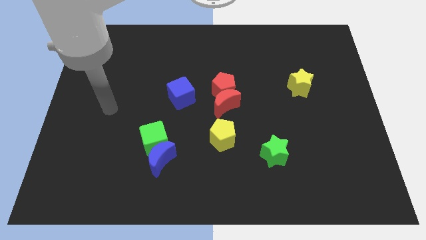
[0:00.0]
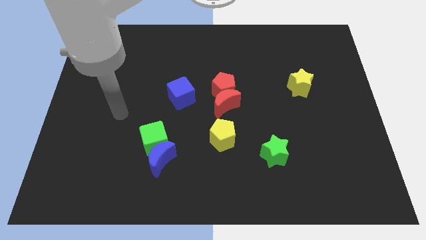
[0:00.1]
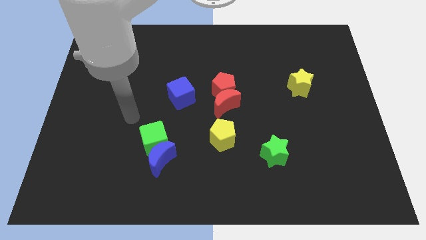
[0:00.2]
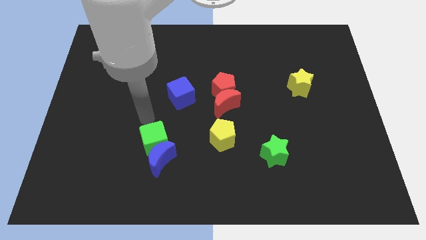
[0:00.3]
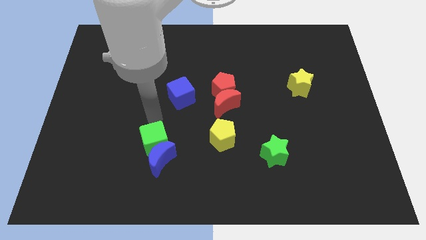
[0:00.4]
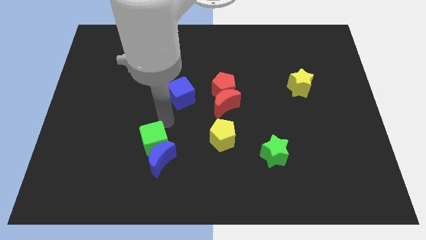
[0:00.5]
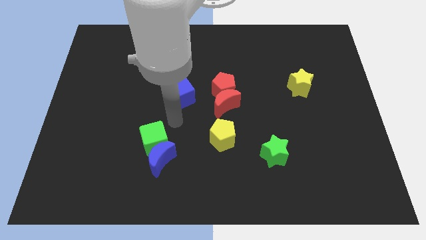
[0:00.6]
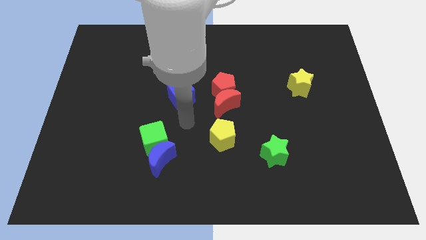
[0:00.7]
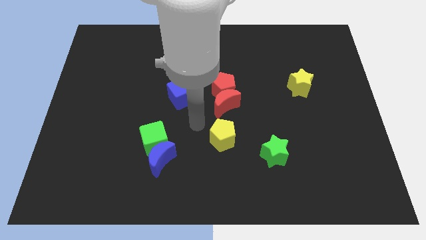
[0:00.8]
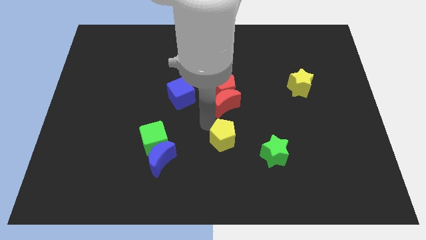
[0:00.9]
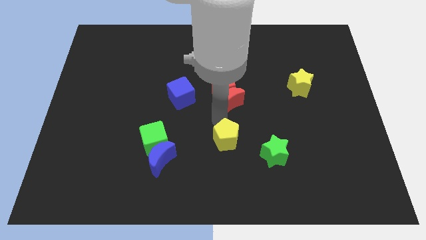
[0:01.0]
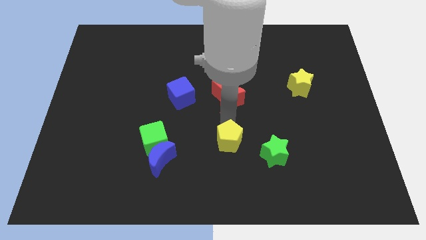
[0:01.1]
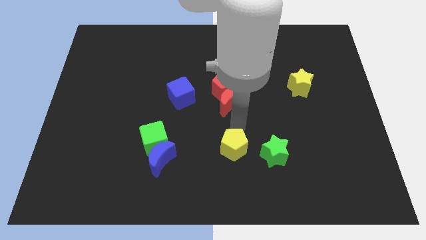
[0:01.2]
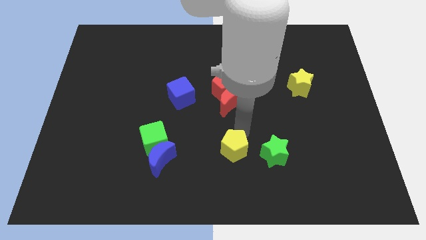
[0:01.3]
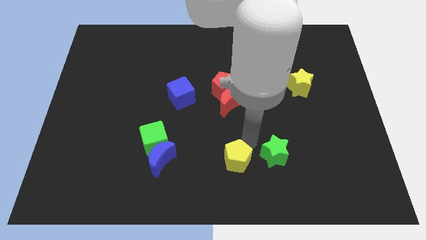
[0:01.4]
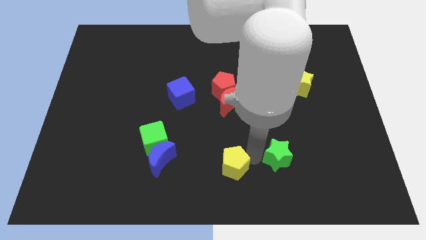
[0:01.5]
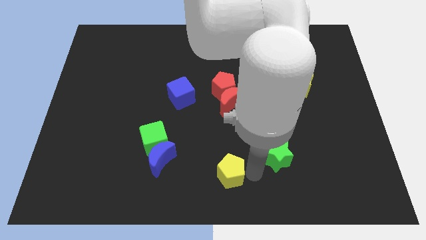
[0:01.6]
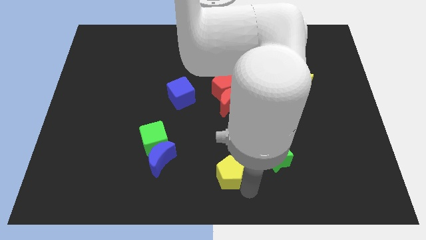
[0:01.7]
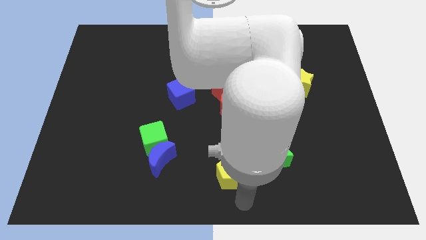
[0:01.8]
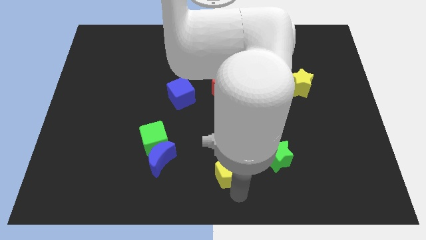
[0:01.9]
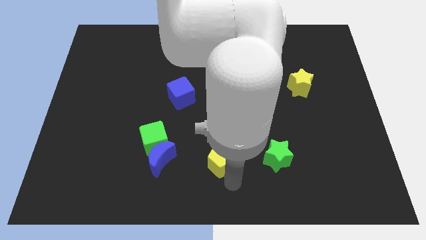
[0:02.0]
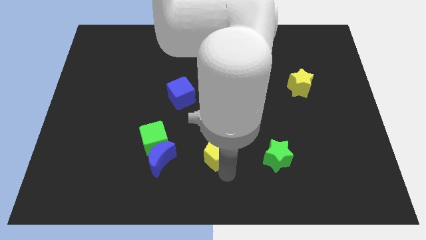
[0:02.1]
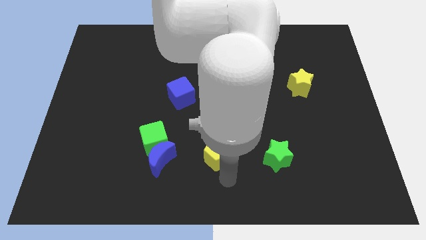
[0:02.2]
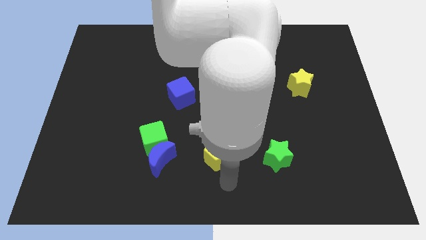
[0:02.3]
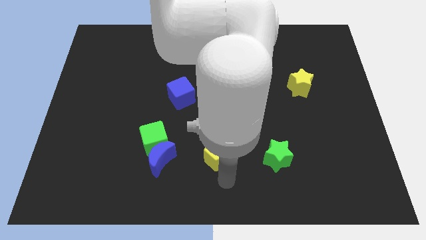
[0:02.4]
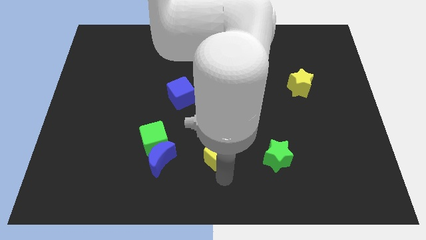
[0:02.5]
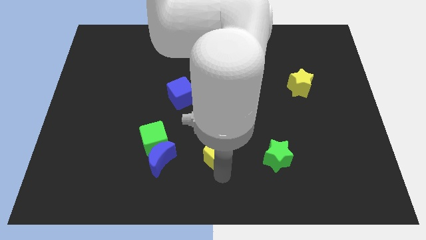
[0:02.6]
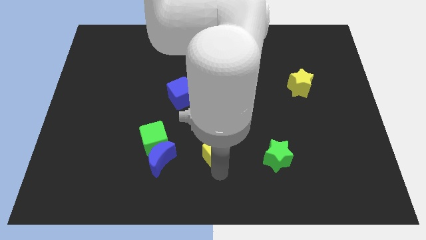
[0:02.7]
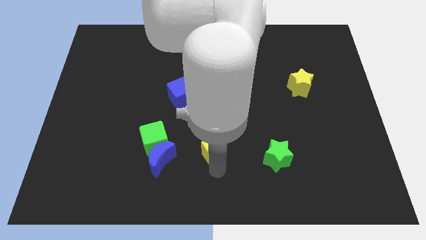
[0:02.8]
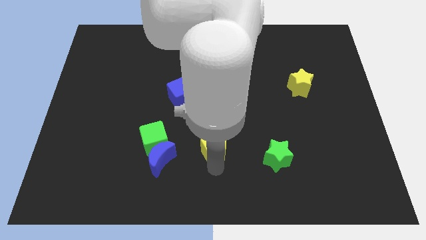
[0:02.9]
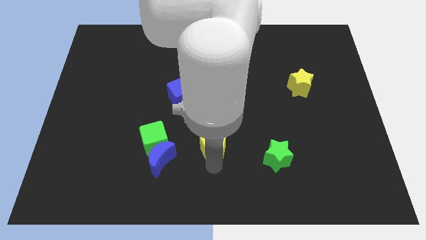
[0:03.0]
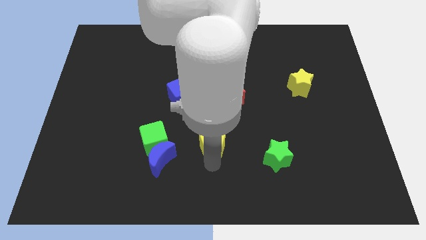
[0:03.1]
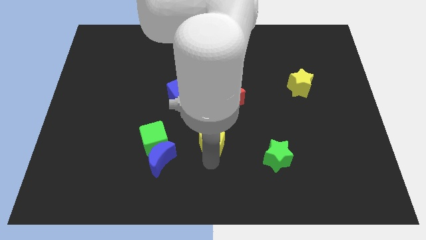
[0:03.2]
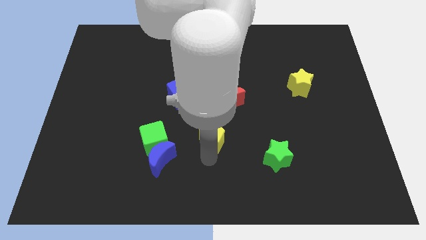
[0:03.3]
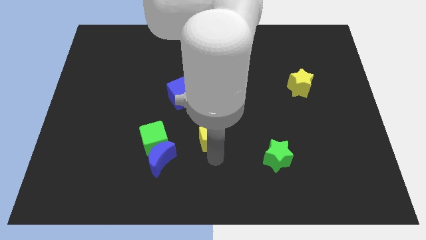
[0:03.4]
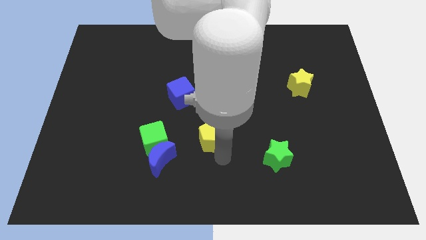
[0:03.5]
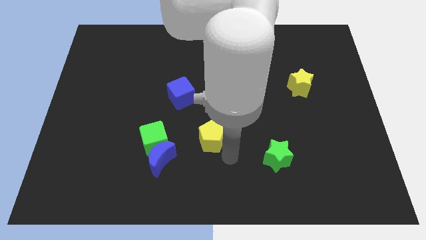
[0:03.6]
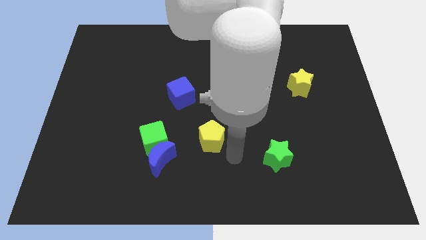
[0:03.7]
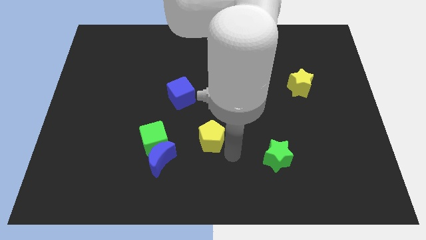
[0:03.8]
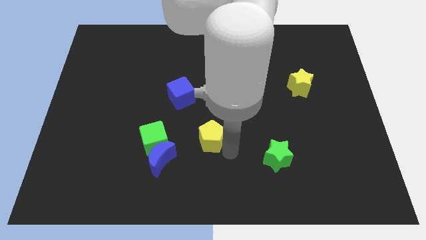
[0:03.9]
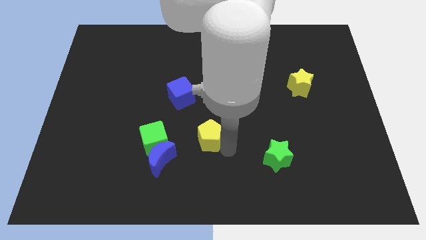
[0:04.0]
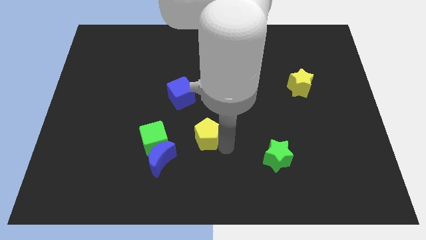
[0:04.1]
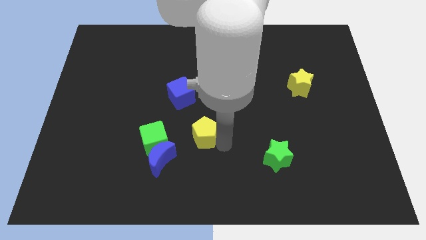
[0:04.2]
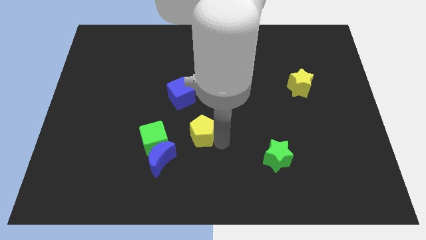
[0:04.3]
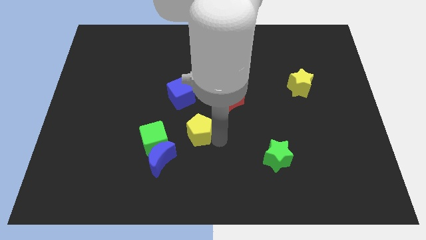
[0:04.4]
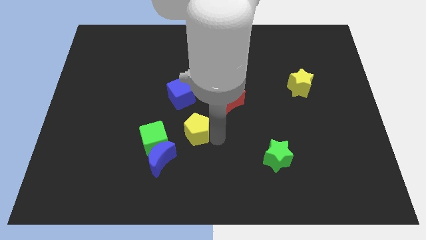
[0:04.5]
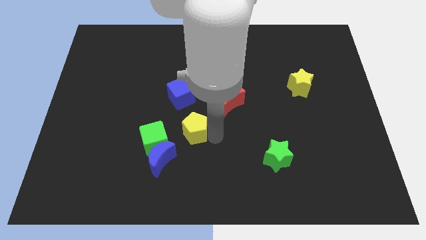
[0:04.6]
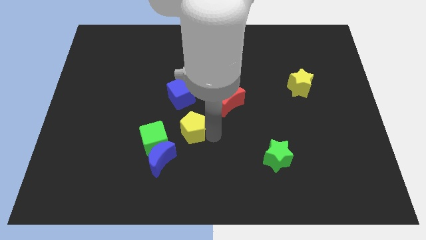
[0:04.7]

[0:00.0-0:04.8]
move the yellow pentagon slightly to the left

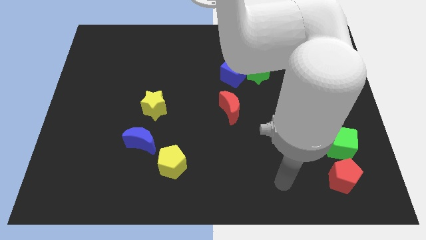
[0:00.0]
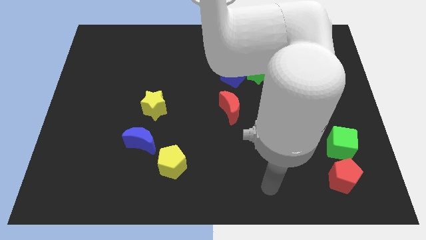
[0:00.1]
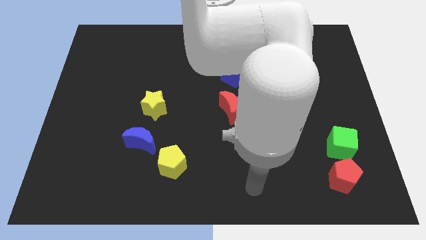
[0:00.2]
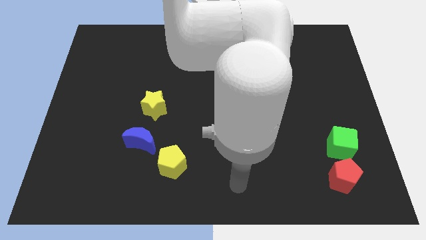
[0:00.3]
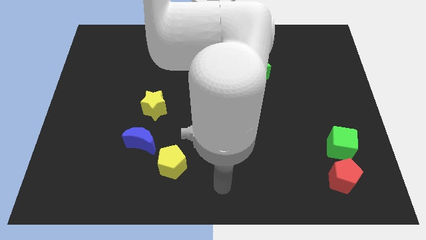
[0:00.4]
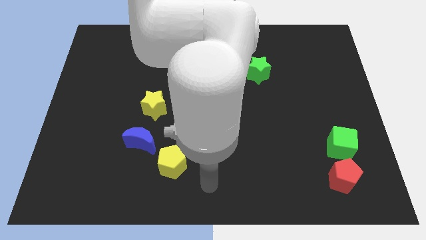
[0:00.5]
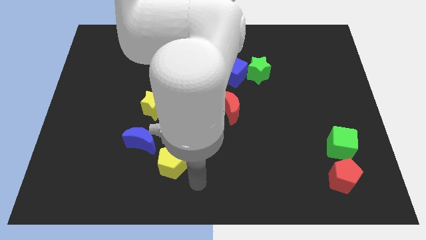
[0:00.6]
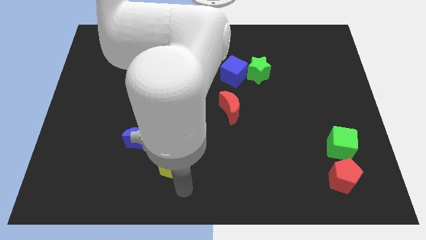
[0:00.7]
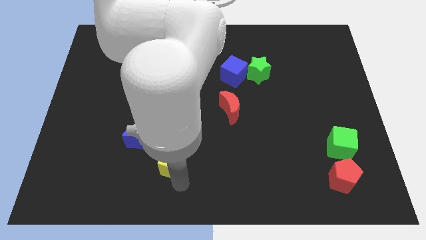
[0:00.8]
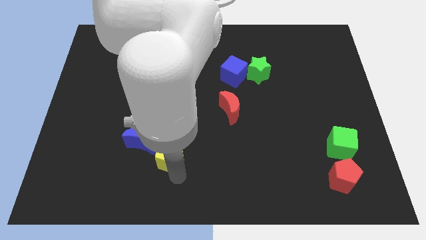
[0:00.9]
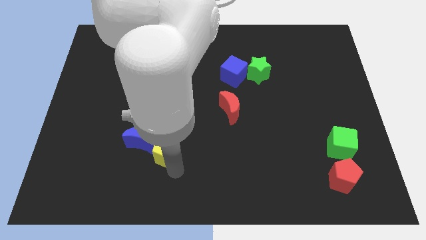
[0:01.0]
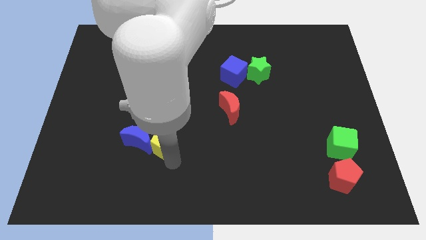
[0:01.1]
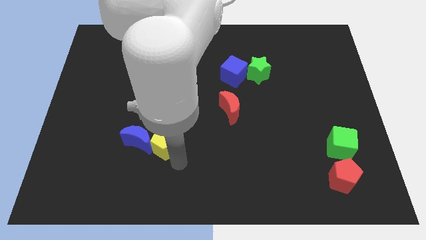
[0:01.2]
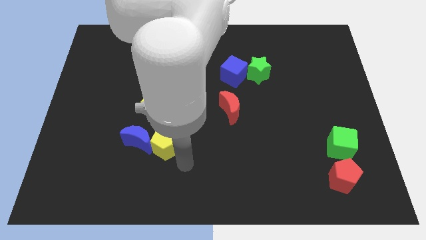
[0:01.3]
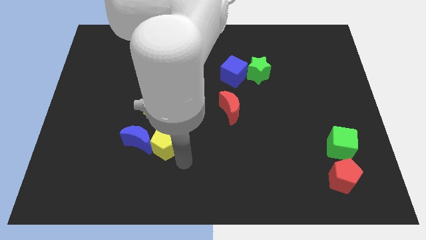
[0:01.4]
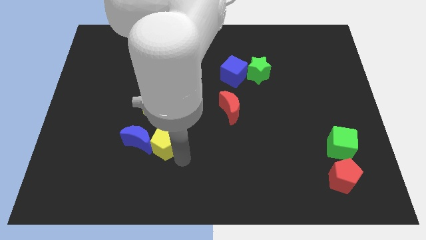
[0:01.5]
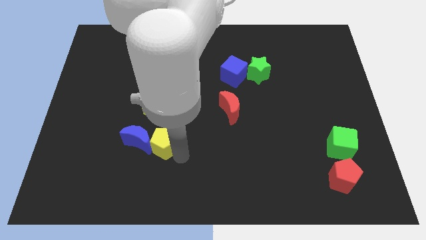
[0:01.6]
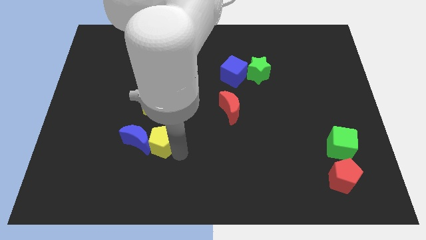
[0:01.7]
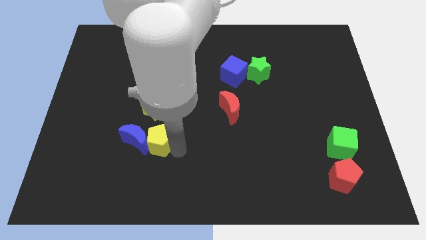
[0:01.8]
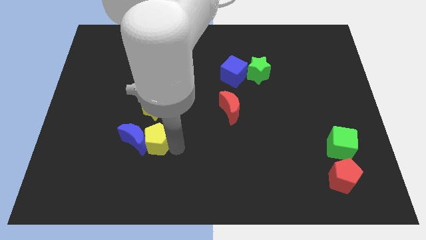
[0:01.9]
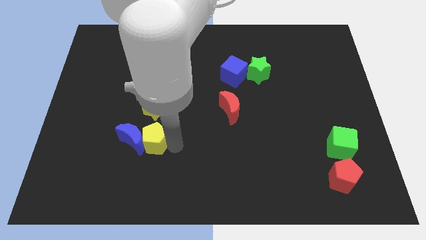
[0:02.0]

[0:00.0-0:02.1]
slightly move the yellow pentagon upwards and left diagonally

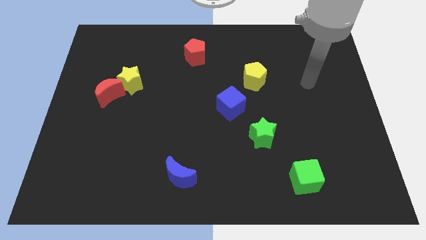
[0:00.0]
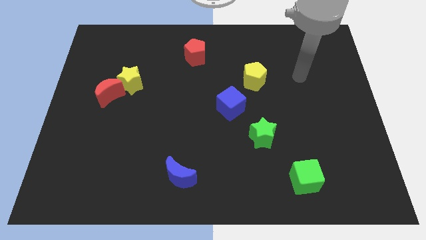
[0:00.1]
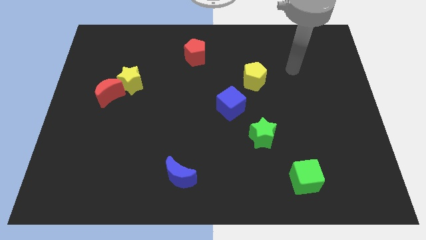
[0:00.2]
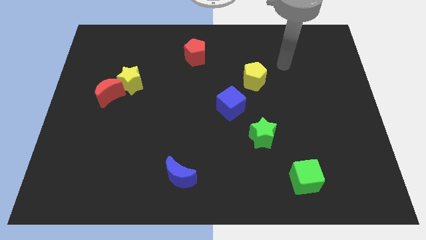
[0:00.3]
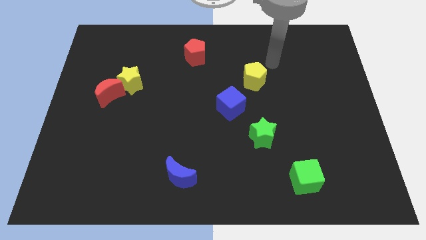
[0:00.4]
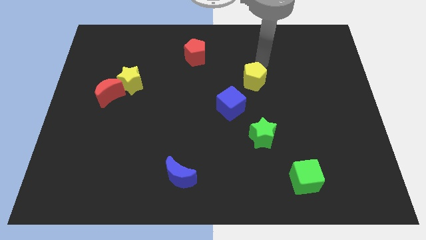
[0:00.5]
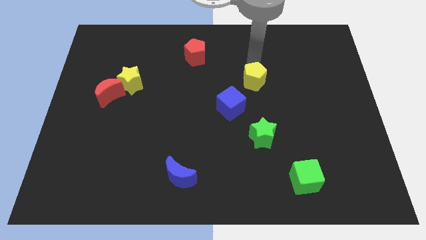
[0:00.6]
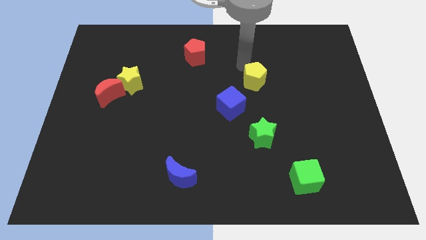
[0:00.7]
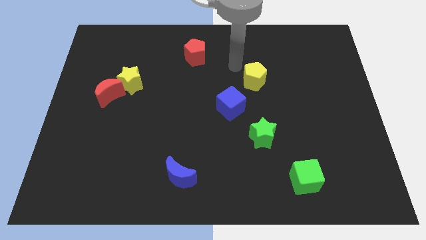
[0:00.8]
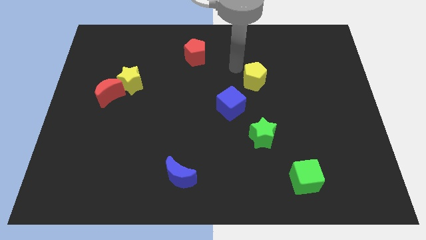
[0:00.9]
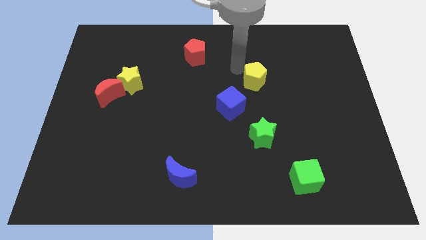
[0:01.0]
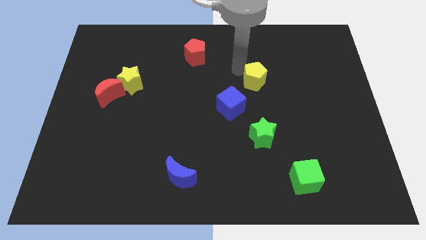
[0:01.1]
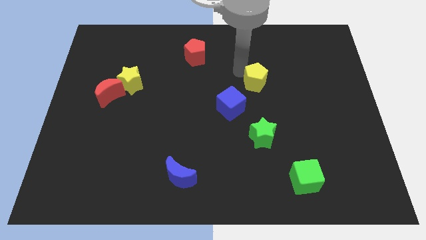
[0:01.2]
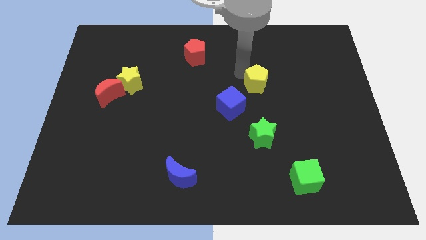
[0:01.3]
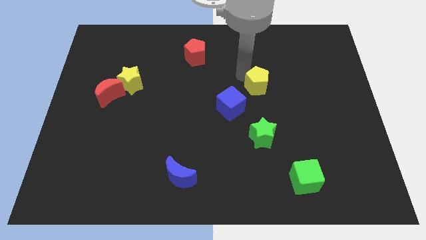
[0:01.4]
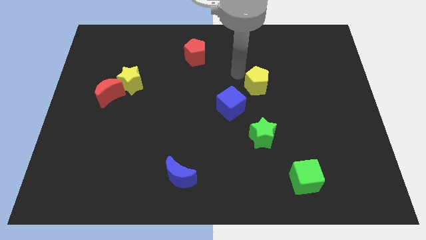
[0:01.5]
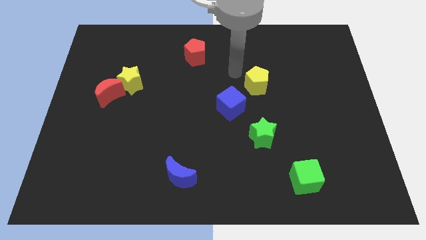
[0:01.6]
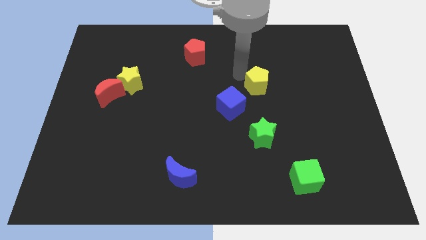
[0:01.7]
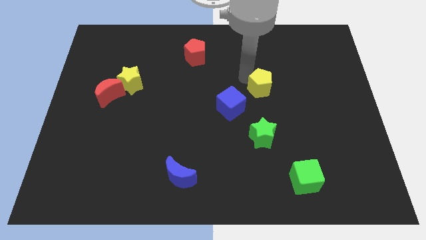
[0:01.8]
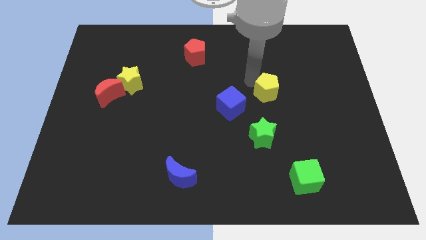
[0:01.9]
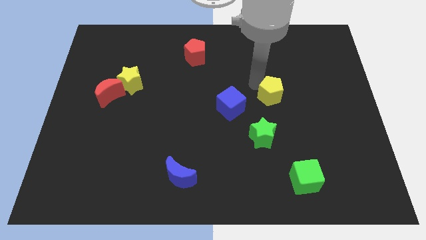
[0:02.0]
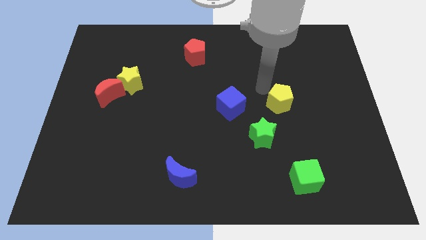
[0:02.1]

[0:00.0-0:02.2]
push the yellow pentagon a little down and then right
